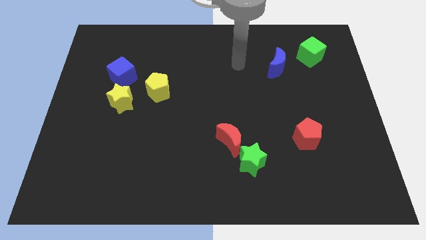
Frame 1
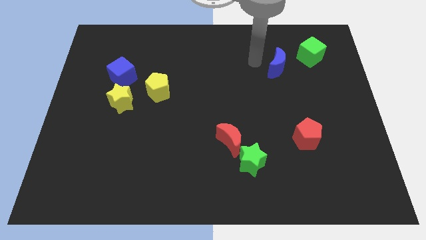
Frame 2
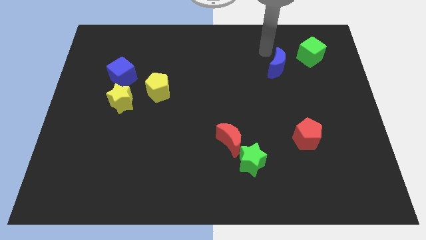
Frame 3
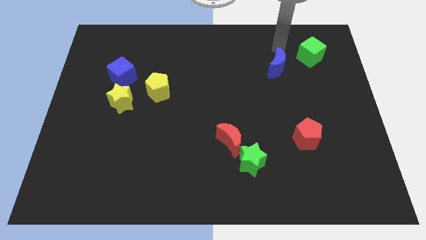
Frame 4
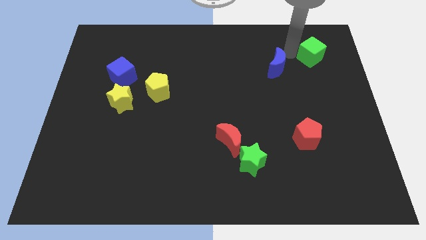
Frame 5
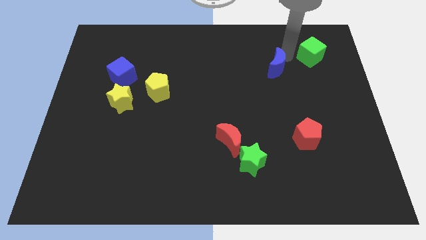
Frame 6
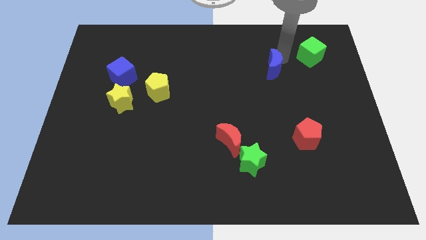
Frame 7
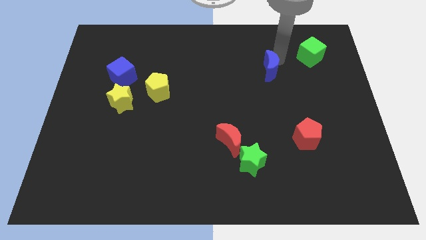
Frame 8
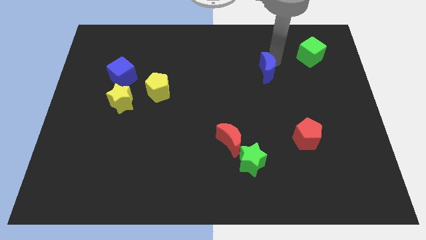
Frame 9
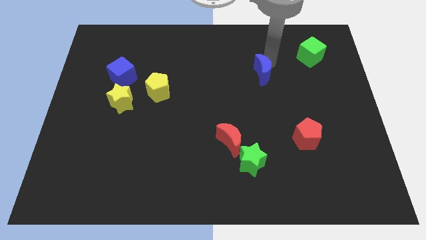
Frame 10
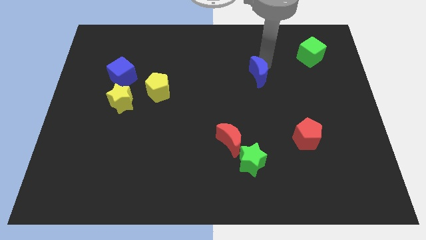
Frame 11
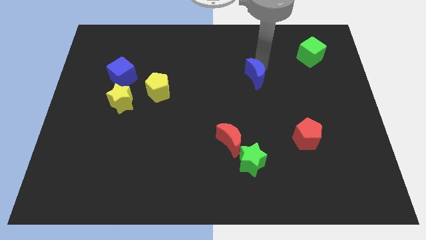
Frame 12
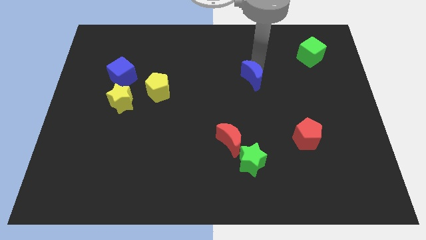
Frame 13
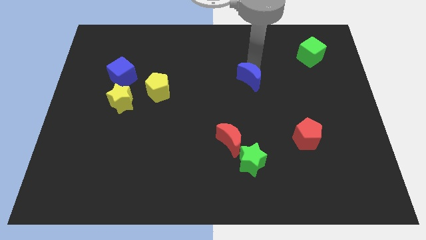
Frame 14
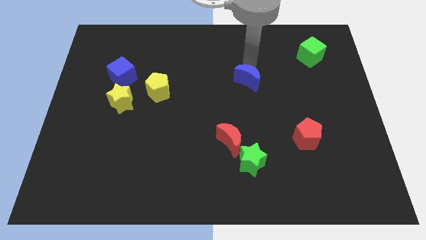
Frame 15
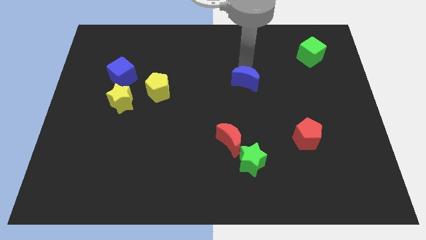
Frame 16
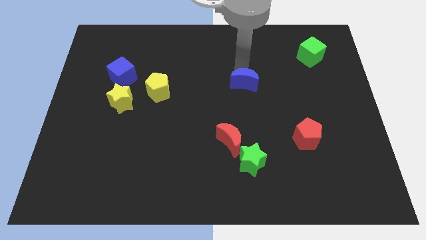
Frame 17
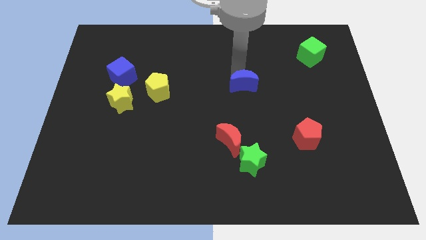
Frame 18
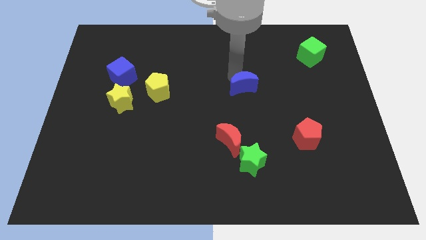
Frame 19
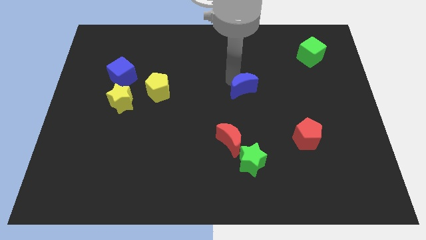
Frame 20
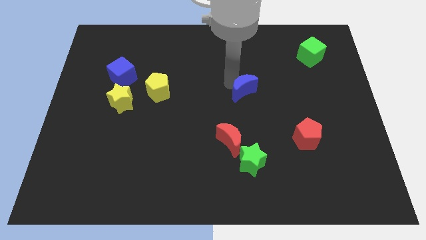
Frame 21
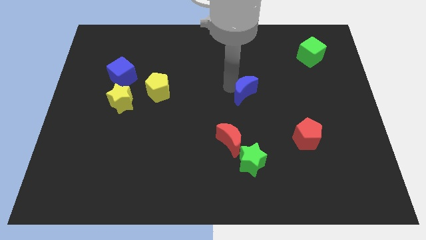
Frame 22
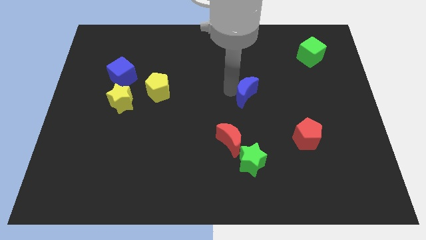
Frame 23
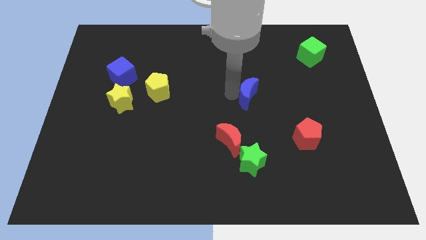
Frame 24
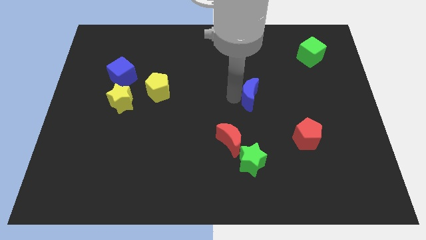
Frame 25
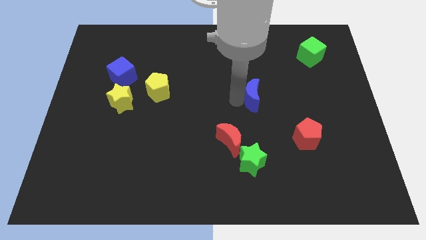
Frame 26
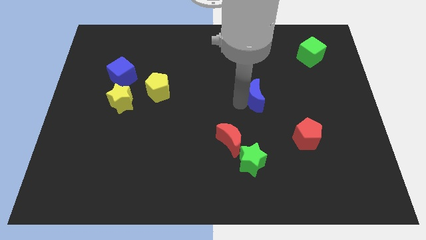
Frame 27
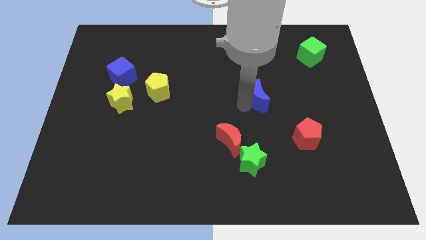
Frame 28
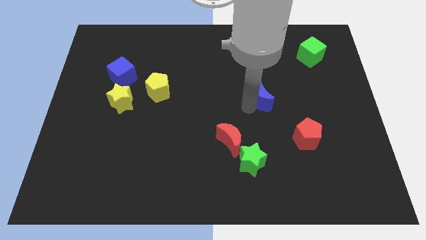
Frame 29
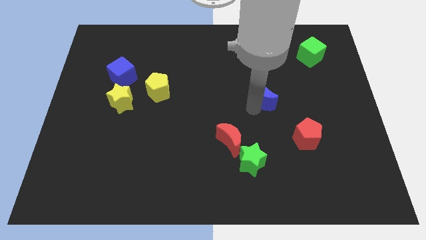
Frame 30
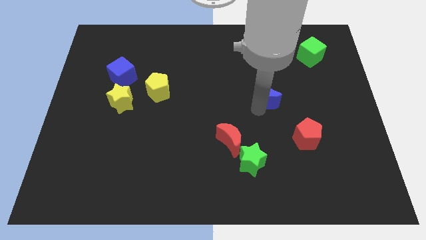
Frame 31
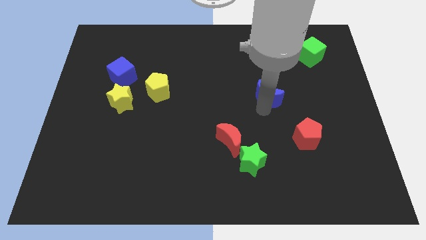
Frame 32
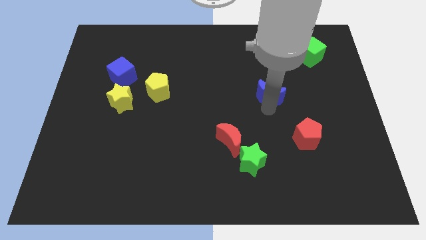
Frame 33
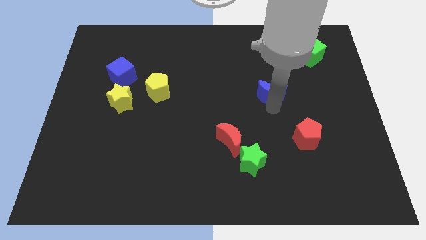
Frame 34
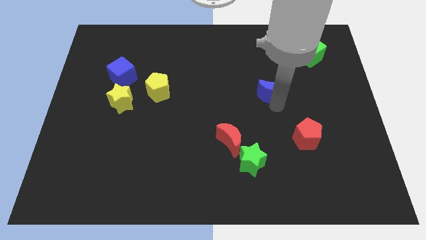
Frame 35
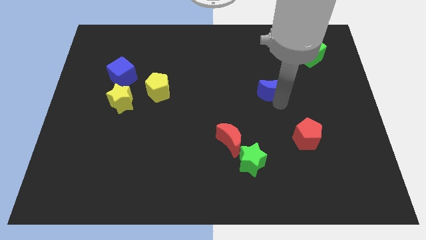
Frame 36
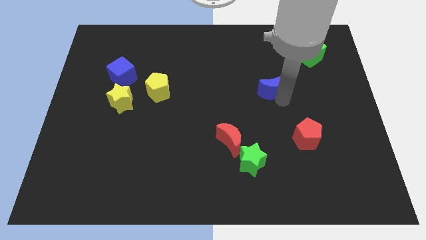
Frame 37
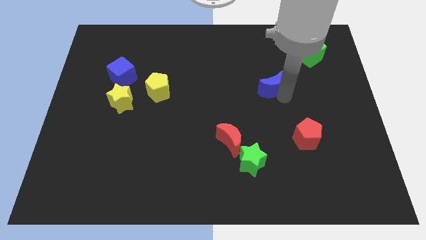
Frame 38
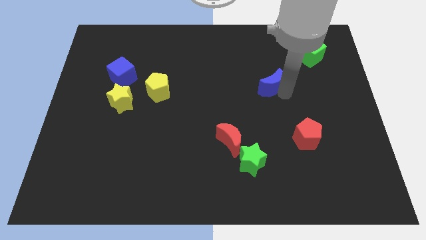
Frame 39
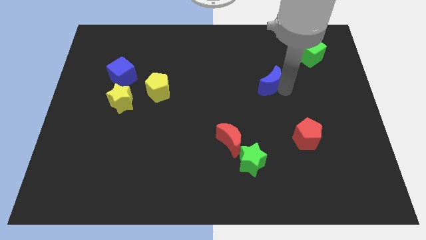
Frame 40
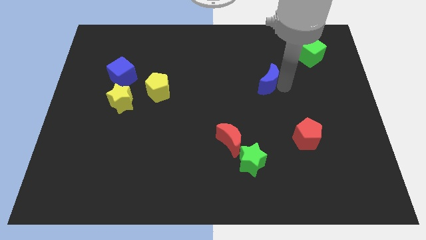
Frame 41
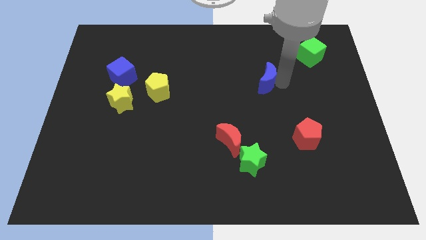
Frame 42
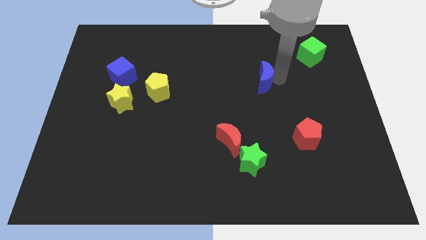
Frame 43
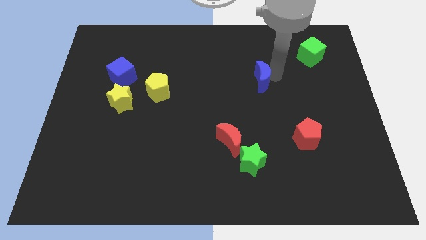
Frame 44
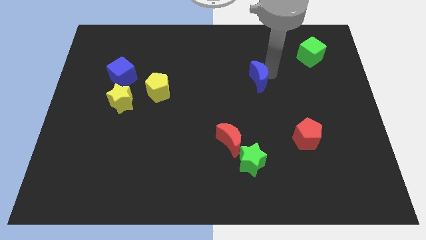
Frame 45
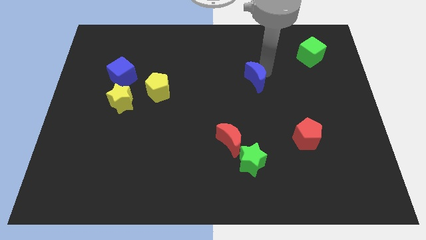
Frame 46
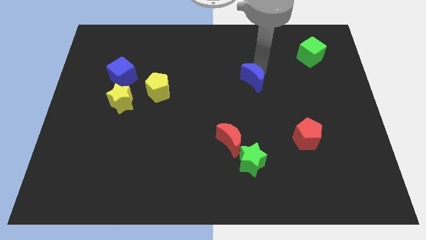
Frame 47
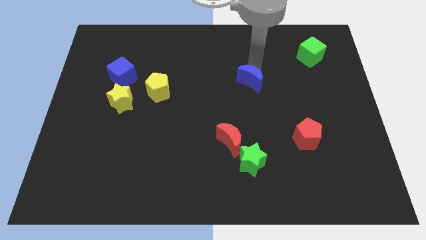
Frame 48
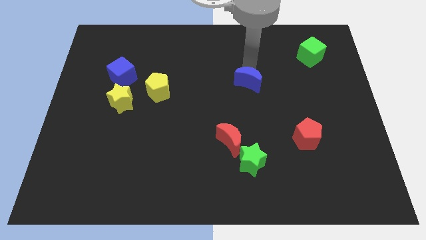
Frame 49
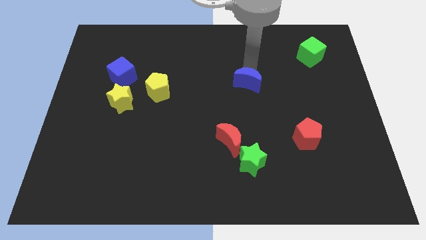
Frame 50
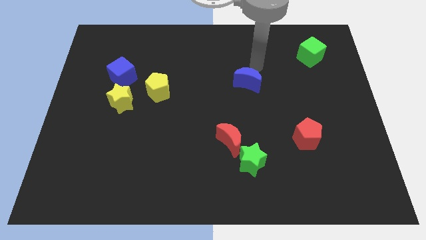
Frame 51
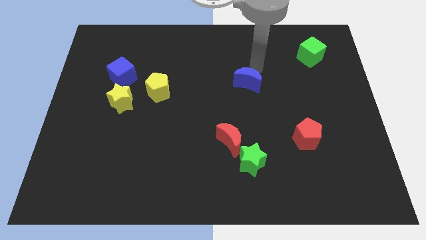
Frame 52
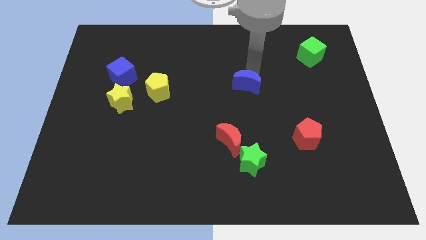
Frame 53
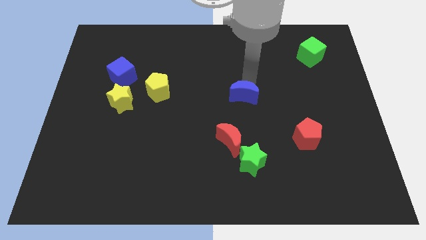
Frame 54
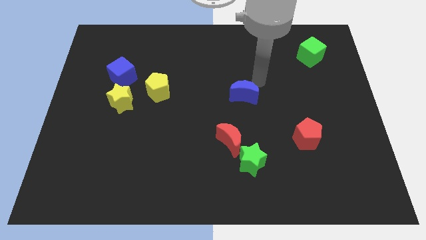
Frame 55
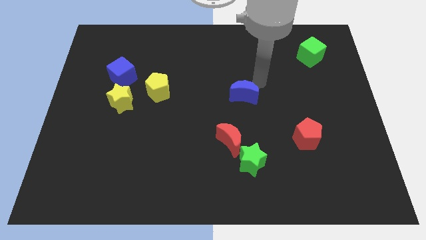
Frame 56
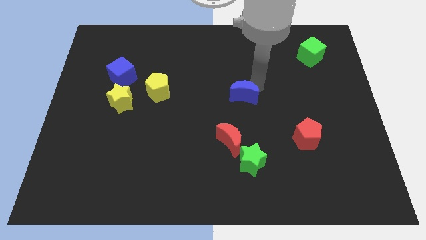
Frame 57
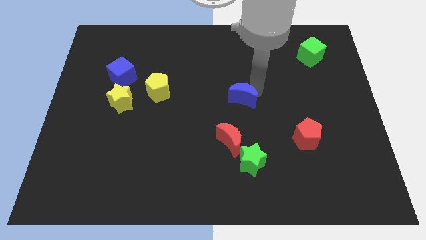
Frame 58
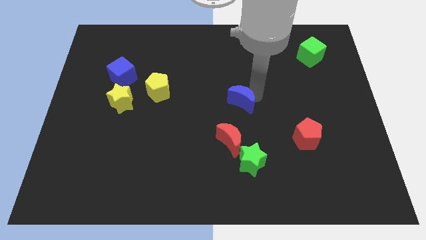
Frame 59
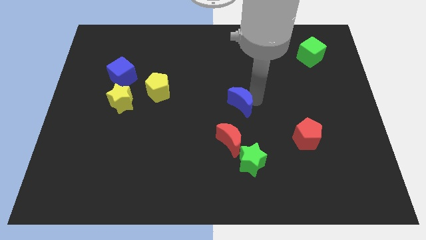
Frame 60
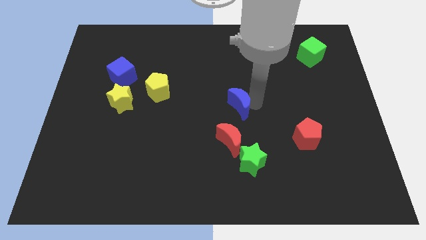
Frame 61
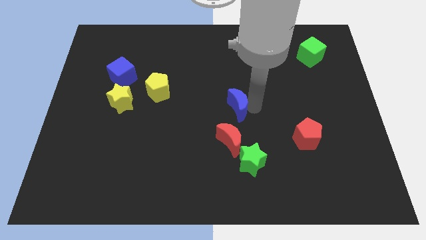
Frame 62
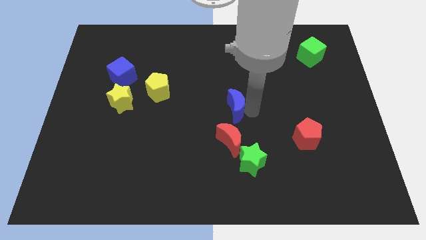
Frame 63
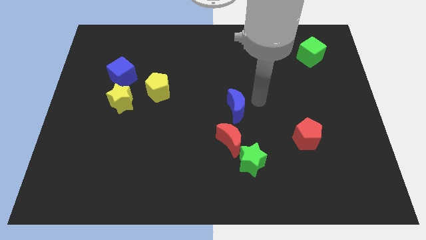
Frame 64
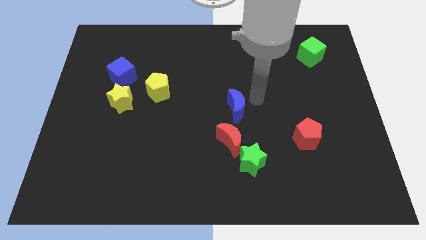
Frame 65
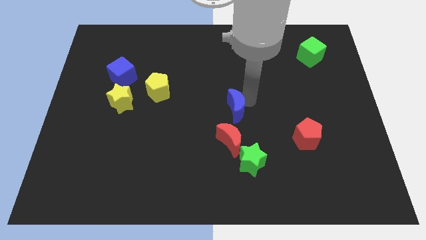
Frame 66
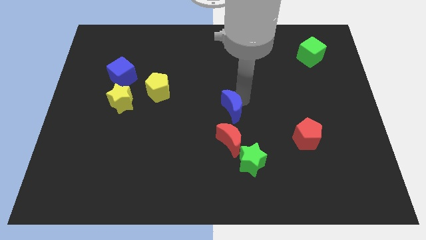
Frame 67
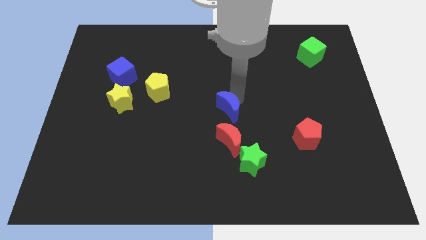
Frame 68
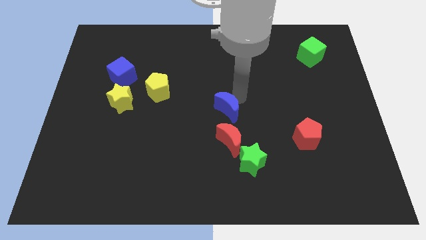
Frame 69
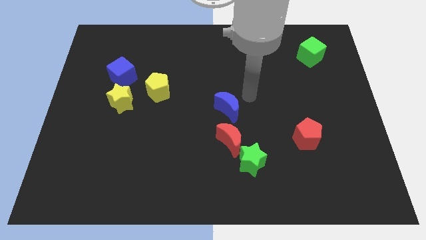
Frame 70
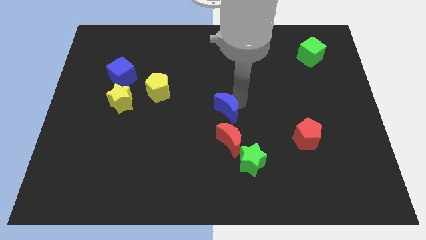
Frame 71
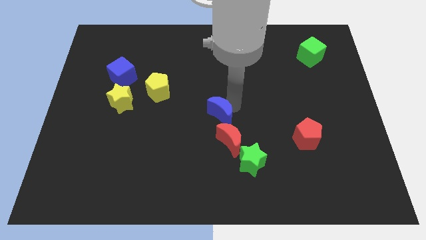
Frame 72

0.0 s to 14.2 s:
slide the blue moon diagonally up and to the left of the red moon
